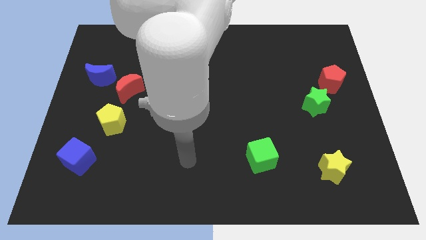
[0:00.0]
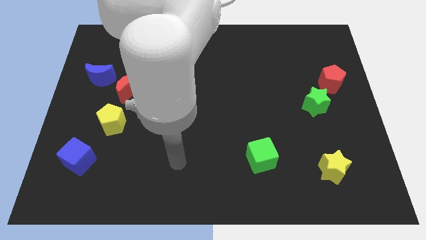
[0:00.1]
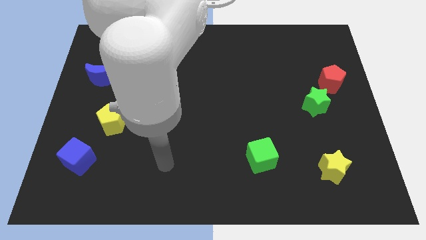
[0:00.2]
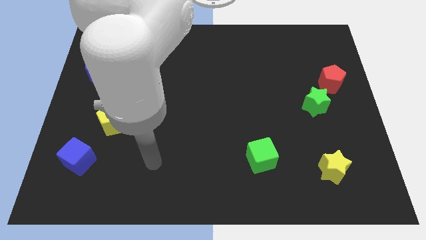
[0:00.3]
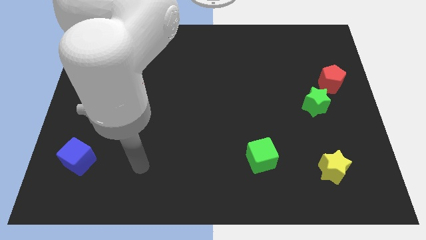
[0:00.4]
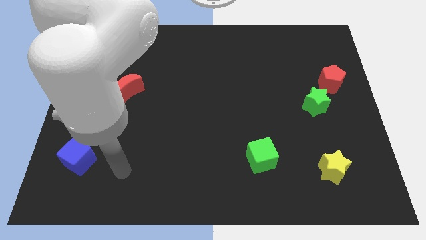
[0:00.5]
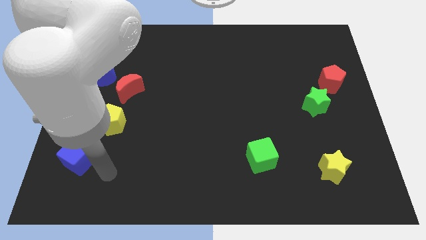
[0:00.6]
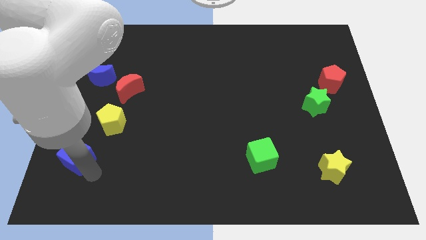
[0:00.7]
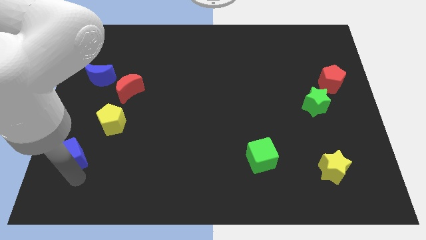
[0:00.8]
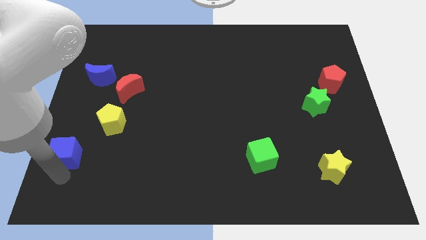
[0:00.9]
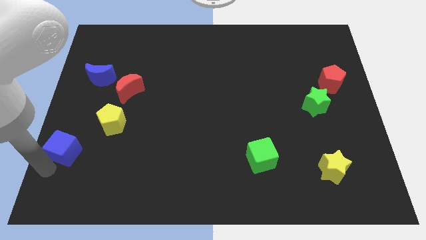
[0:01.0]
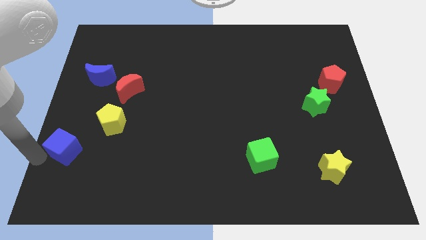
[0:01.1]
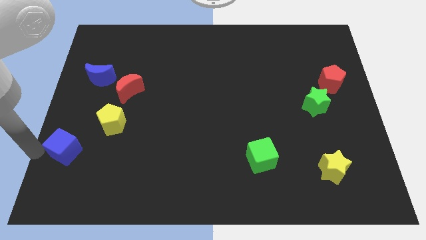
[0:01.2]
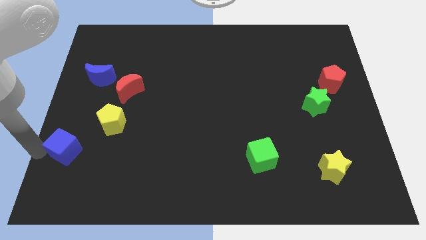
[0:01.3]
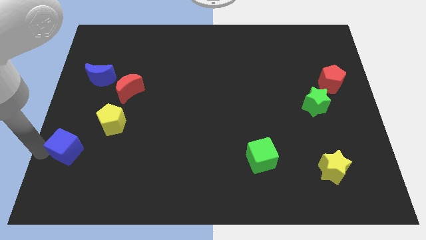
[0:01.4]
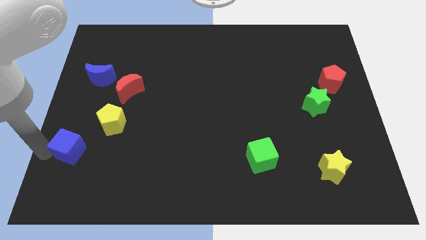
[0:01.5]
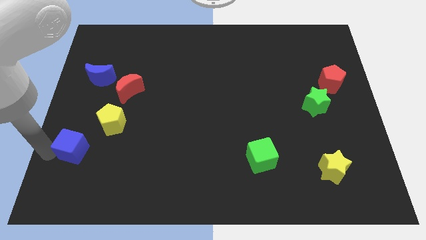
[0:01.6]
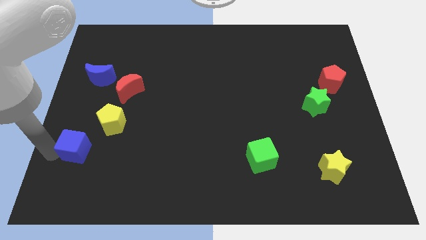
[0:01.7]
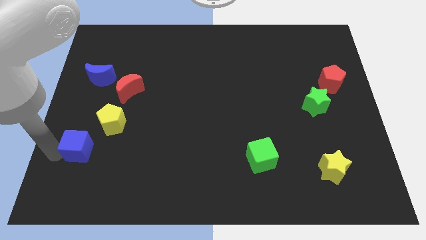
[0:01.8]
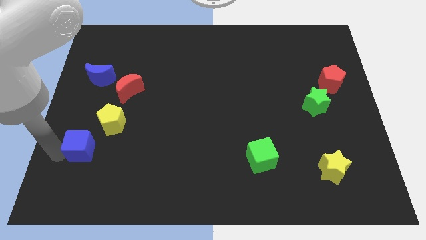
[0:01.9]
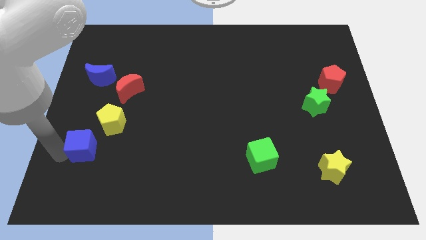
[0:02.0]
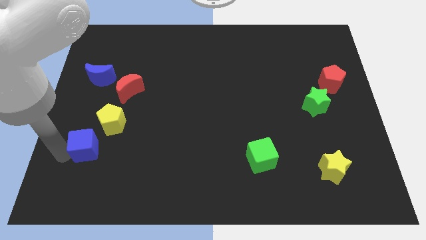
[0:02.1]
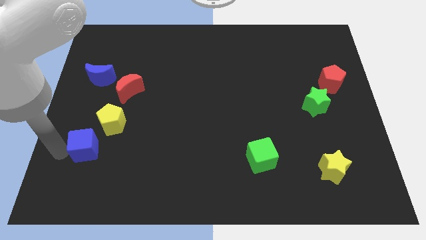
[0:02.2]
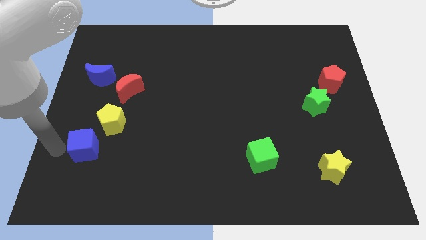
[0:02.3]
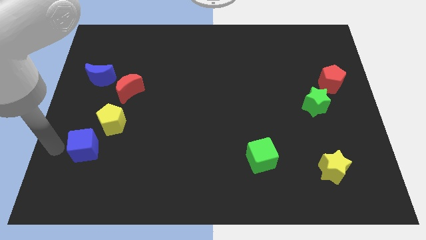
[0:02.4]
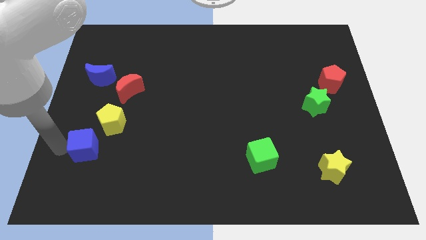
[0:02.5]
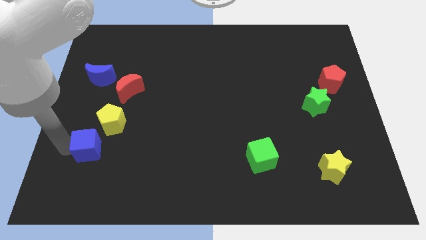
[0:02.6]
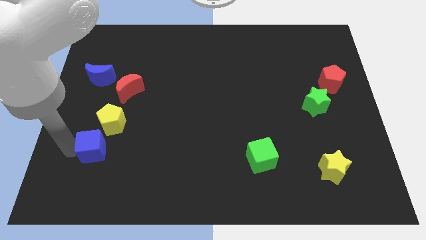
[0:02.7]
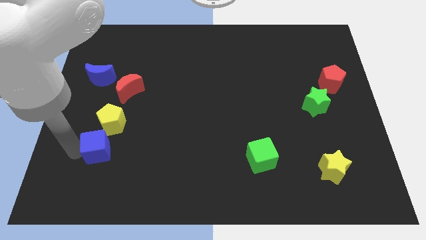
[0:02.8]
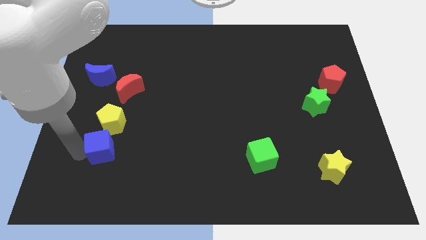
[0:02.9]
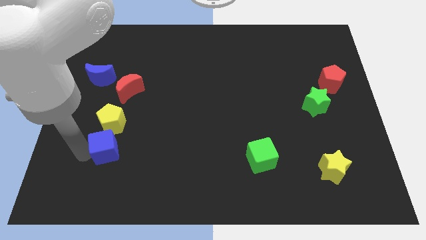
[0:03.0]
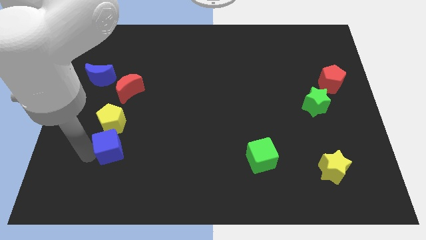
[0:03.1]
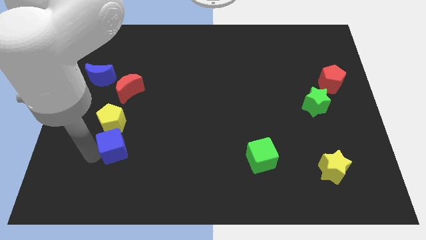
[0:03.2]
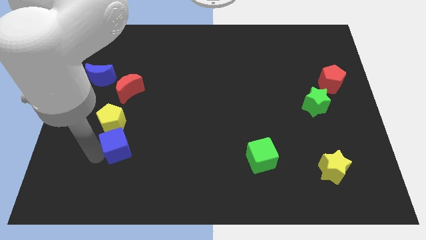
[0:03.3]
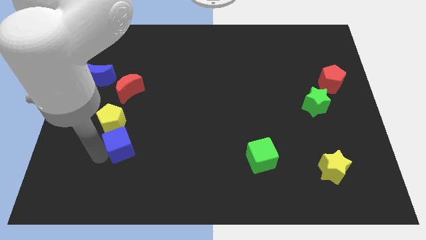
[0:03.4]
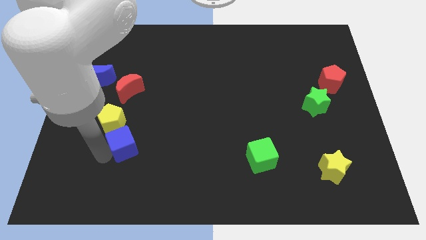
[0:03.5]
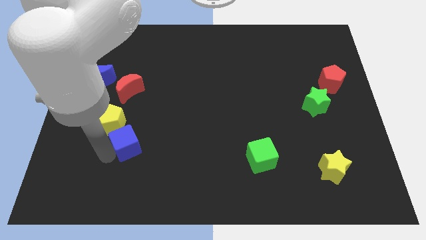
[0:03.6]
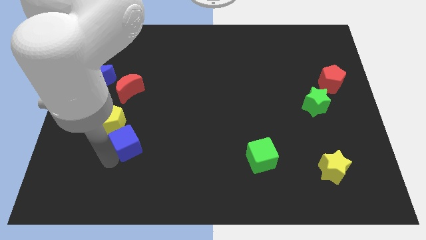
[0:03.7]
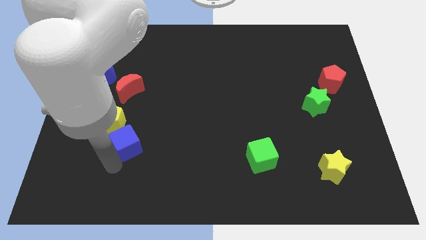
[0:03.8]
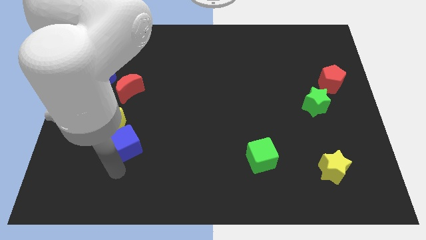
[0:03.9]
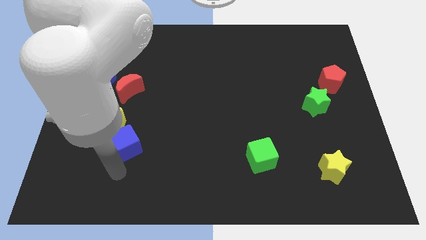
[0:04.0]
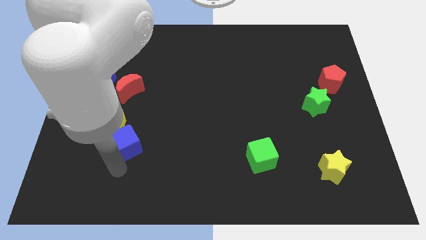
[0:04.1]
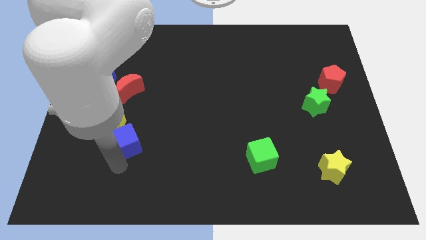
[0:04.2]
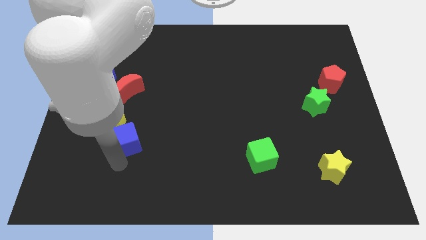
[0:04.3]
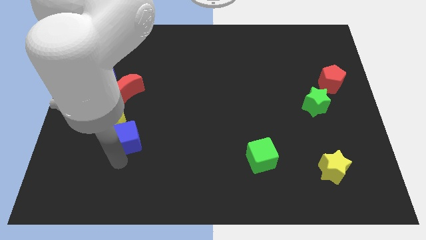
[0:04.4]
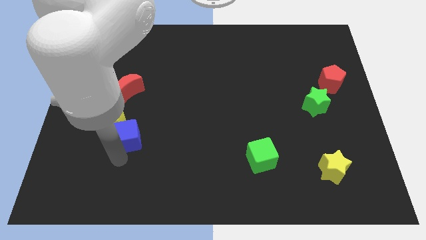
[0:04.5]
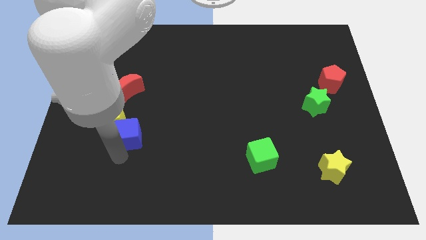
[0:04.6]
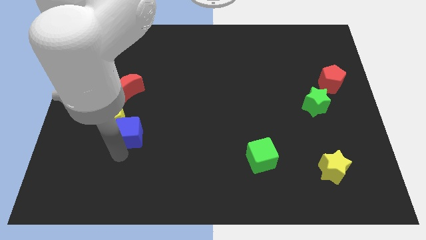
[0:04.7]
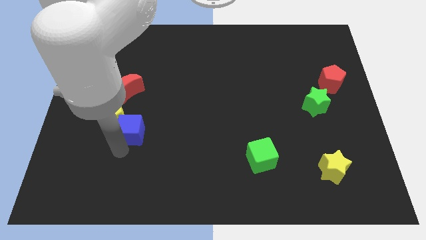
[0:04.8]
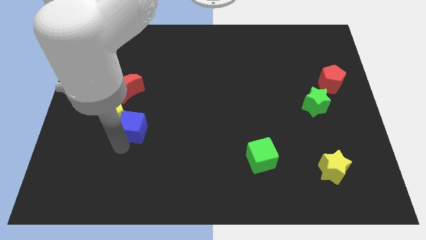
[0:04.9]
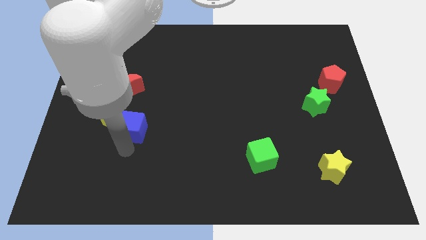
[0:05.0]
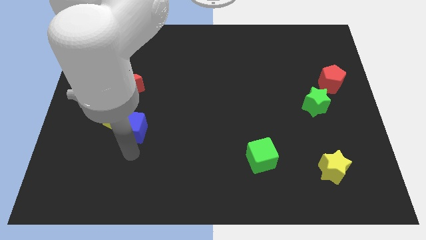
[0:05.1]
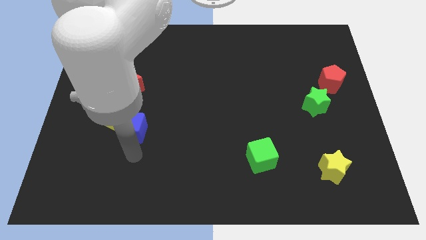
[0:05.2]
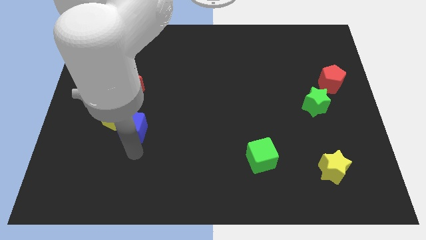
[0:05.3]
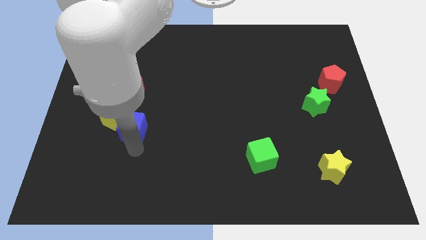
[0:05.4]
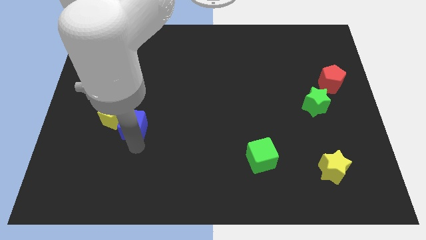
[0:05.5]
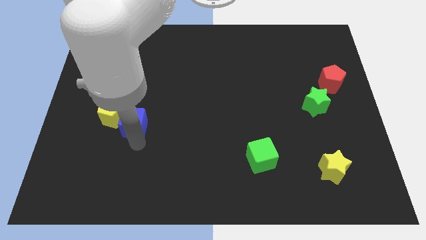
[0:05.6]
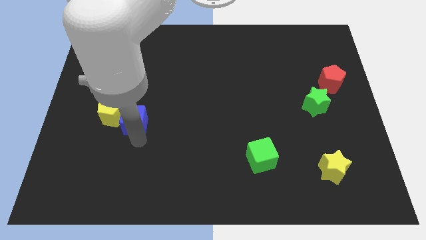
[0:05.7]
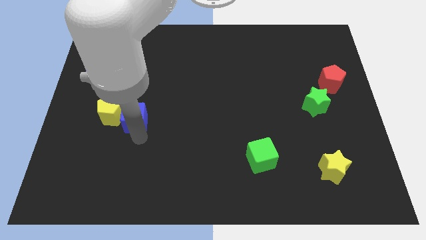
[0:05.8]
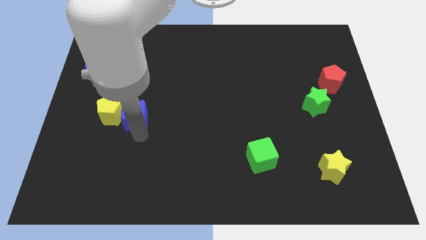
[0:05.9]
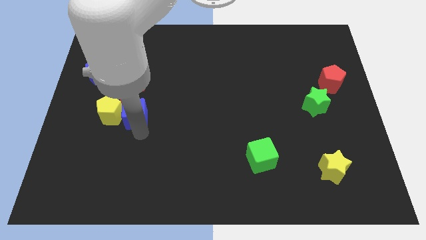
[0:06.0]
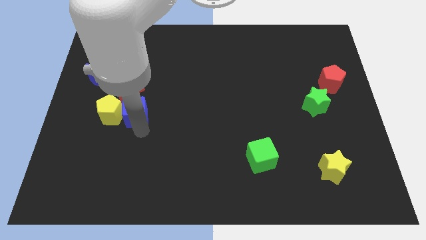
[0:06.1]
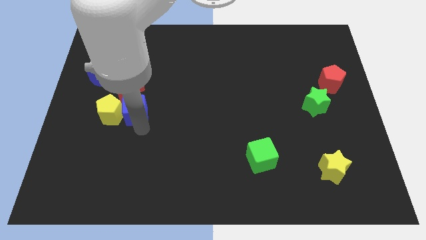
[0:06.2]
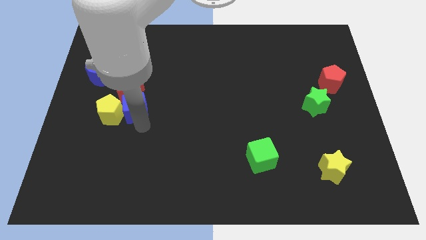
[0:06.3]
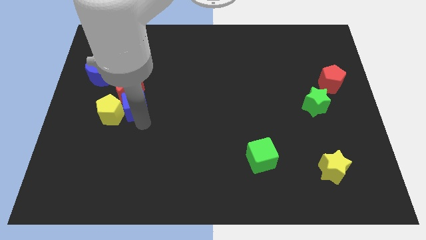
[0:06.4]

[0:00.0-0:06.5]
slide the blue cube towards the red moon

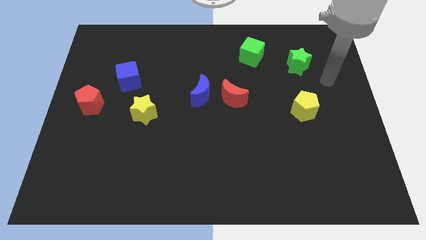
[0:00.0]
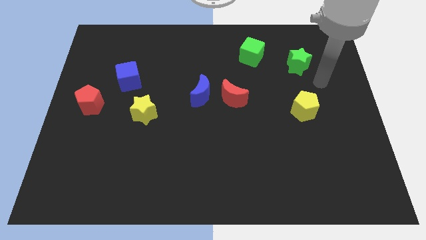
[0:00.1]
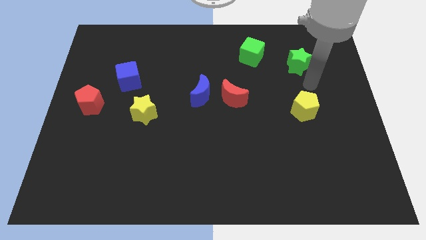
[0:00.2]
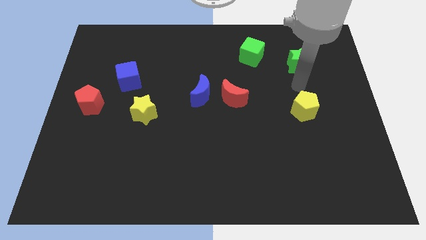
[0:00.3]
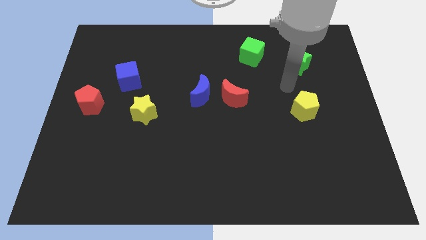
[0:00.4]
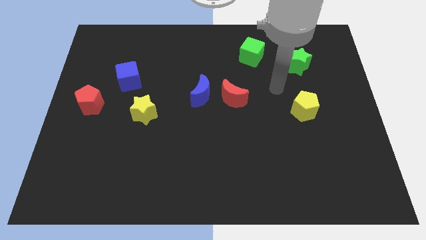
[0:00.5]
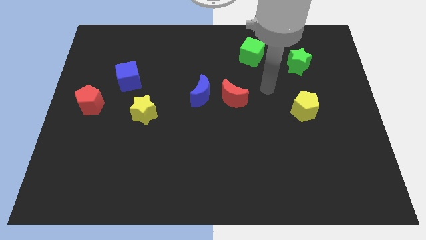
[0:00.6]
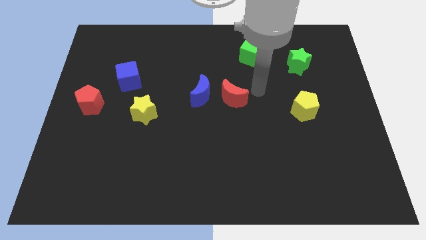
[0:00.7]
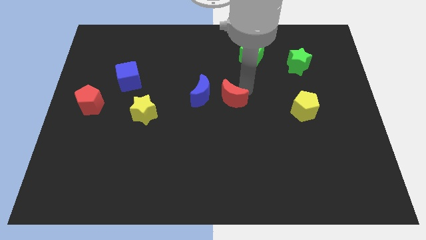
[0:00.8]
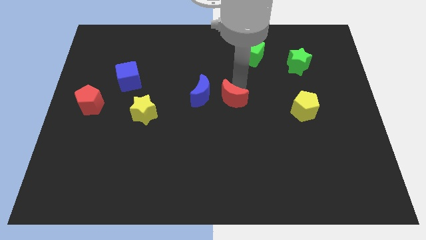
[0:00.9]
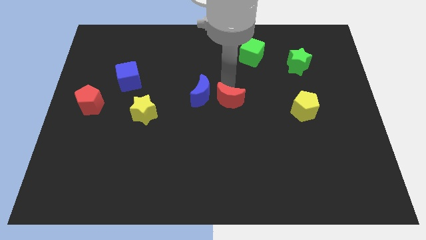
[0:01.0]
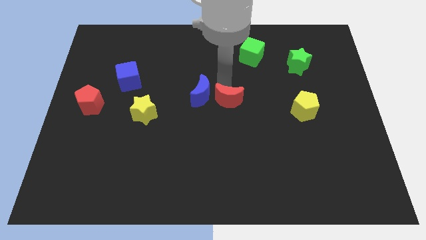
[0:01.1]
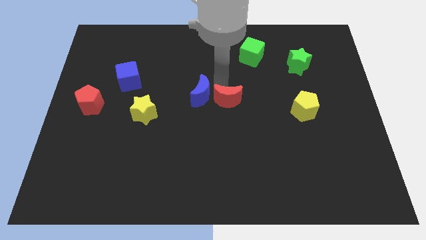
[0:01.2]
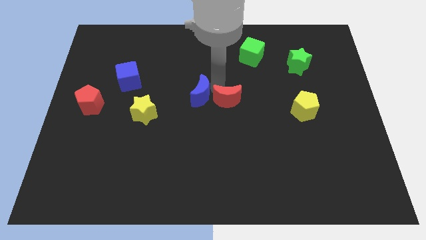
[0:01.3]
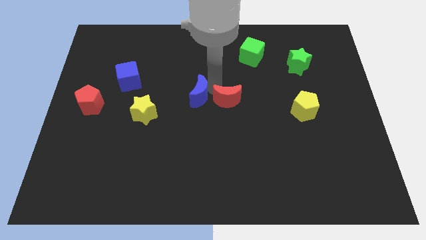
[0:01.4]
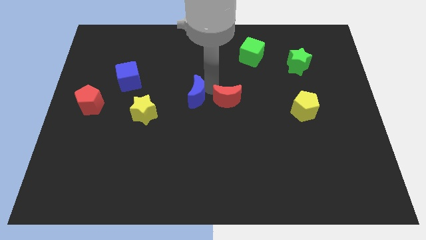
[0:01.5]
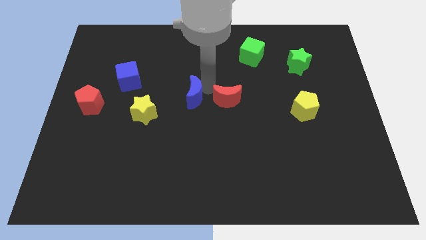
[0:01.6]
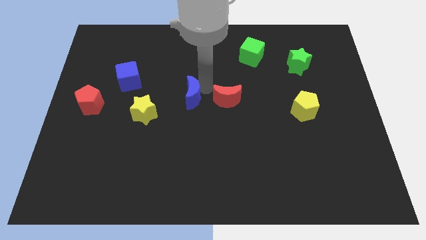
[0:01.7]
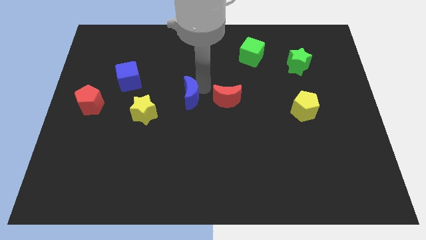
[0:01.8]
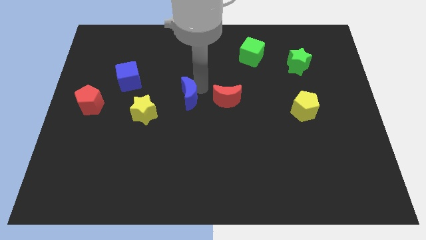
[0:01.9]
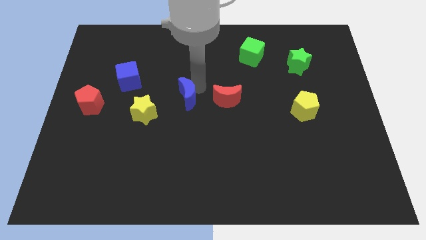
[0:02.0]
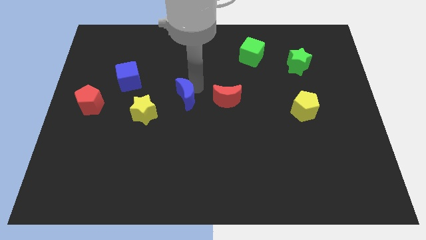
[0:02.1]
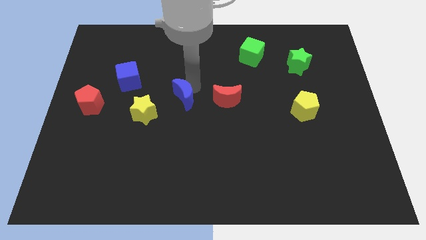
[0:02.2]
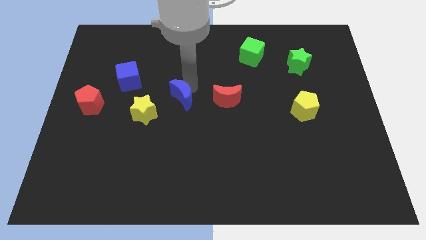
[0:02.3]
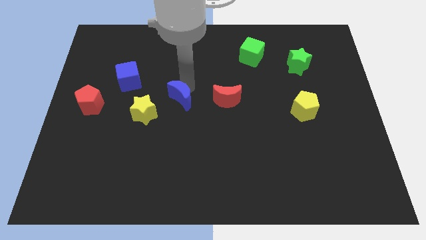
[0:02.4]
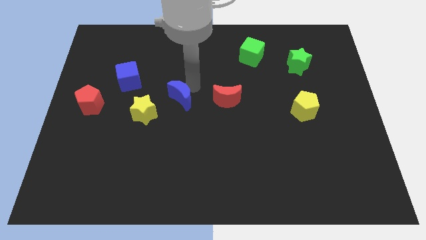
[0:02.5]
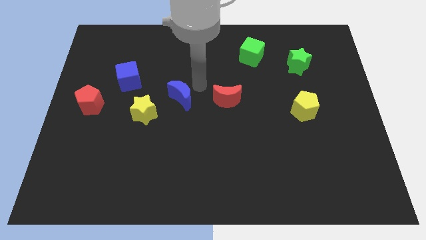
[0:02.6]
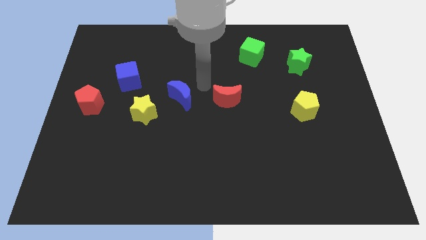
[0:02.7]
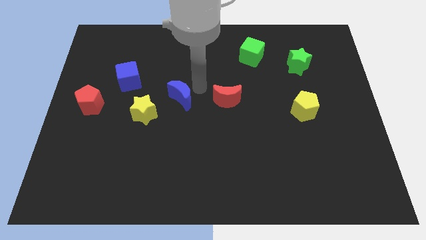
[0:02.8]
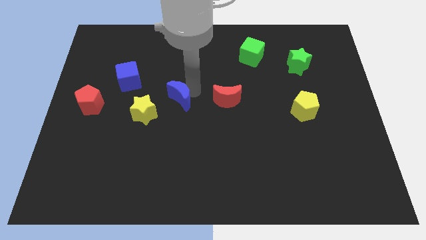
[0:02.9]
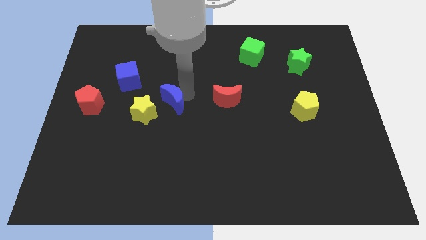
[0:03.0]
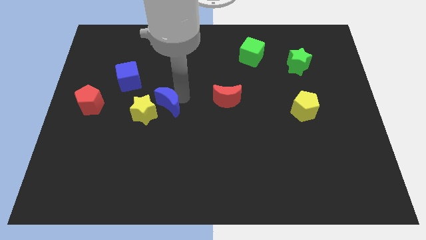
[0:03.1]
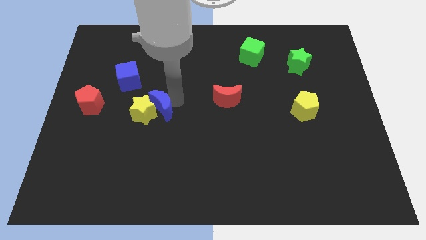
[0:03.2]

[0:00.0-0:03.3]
move the blue moon towards the yellow star
